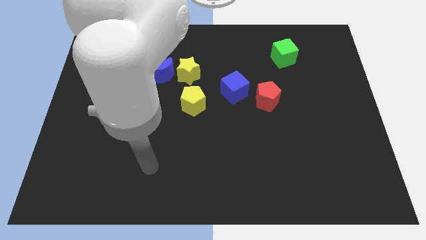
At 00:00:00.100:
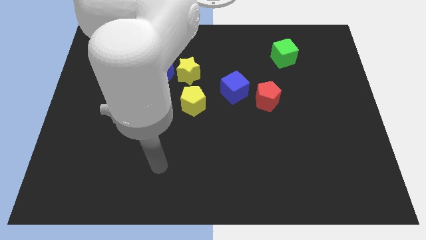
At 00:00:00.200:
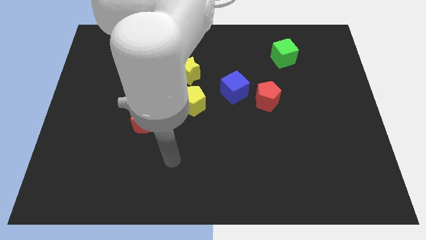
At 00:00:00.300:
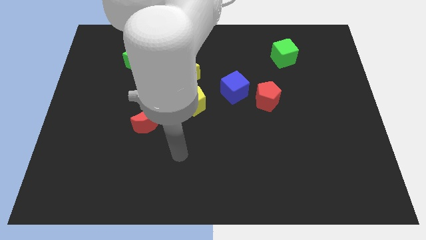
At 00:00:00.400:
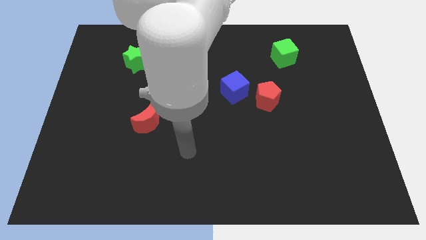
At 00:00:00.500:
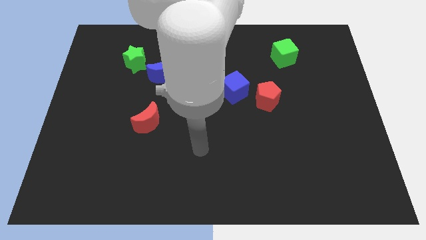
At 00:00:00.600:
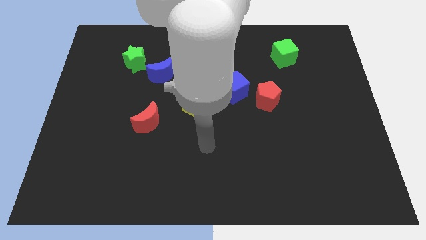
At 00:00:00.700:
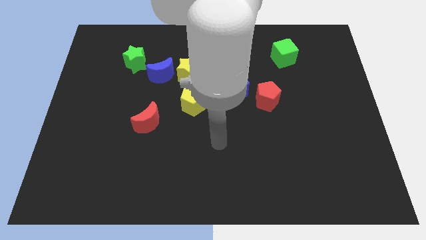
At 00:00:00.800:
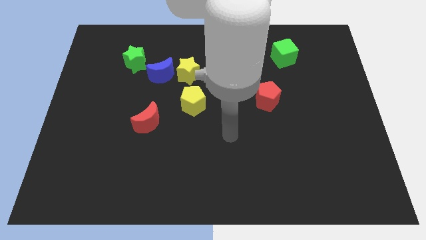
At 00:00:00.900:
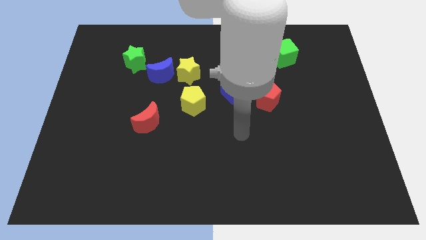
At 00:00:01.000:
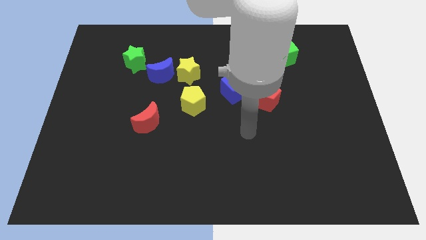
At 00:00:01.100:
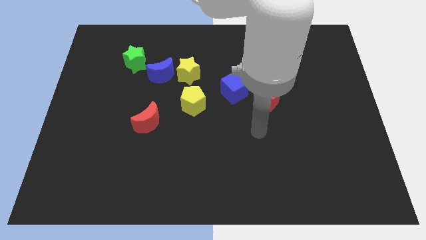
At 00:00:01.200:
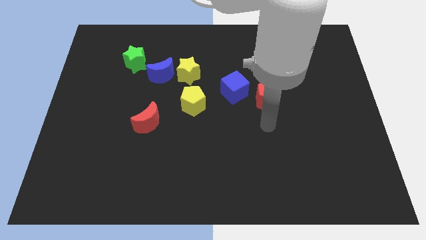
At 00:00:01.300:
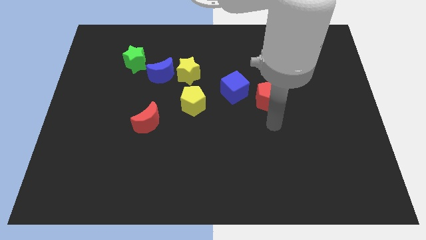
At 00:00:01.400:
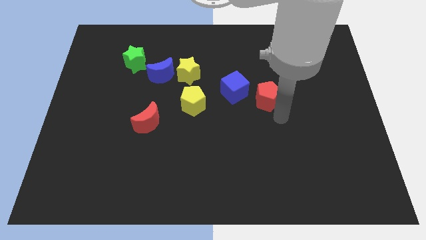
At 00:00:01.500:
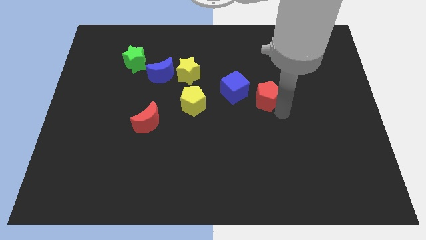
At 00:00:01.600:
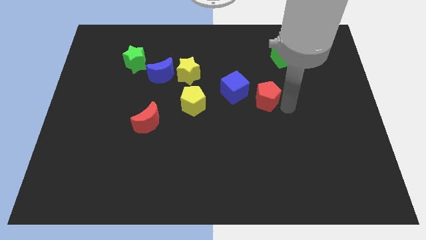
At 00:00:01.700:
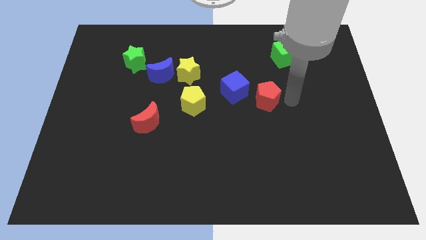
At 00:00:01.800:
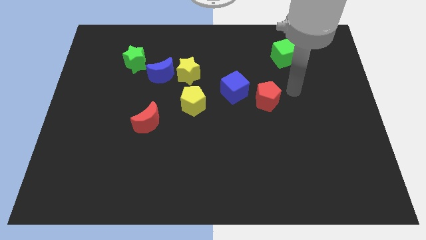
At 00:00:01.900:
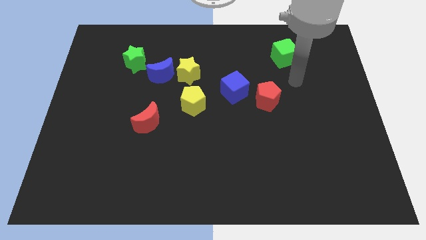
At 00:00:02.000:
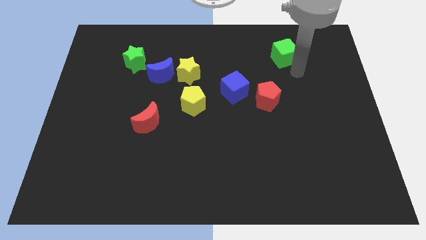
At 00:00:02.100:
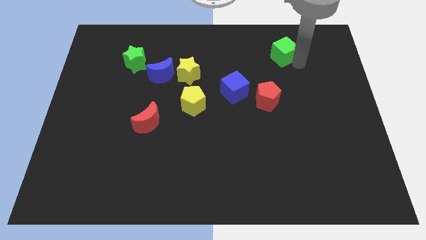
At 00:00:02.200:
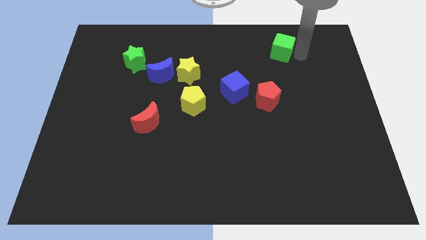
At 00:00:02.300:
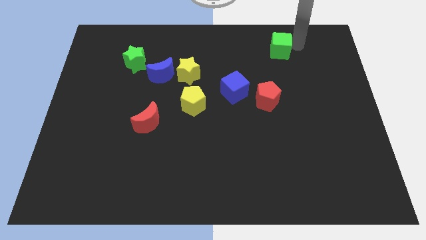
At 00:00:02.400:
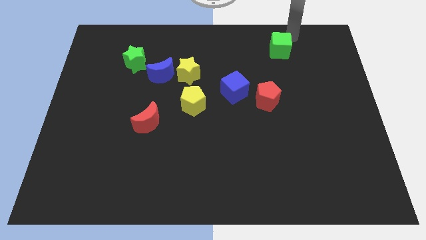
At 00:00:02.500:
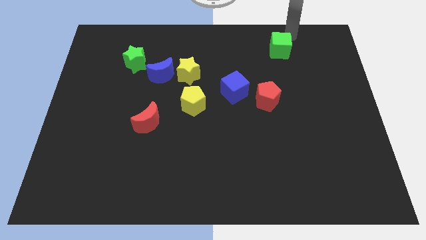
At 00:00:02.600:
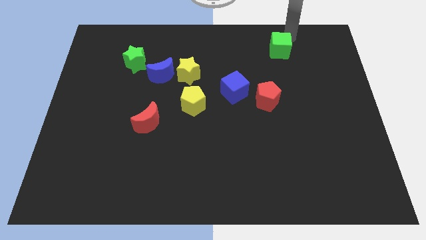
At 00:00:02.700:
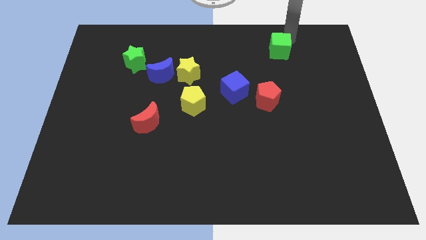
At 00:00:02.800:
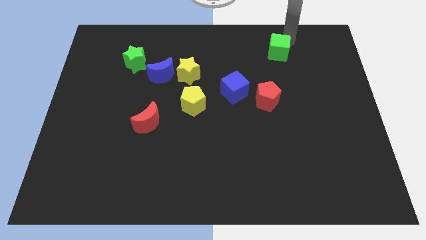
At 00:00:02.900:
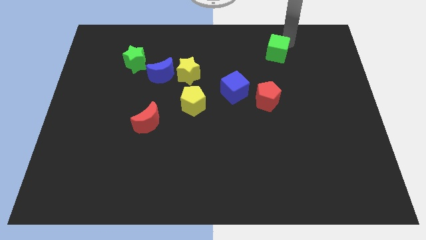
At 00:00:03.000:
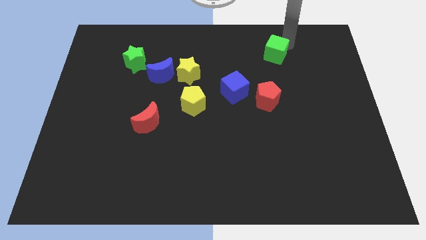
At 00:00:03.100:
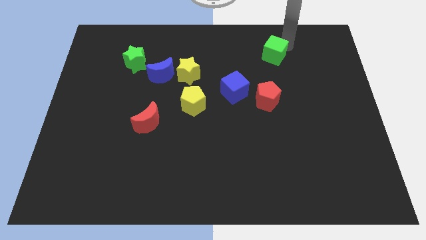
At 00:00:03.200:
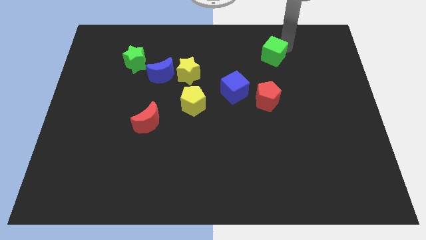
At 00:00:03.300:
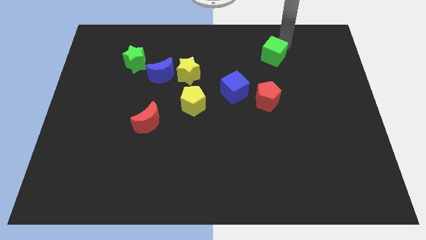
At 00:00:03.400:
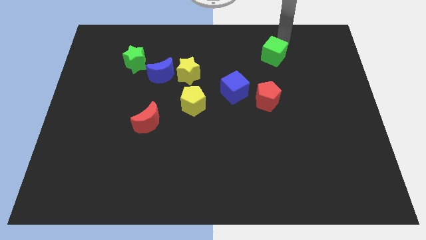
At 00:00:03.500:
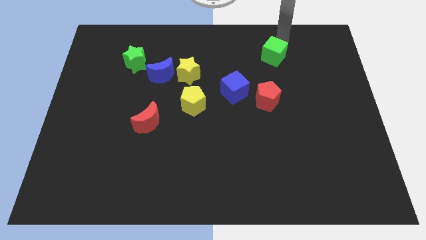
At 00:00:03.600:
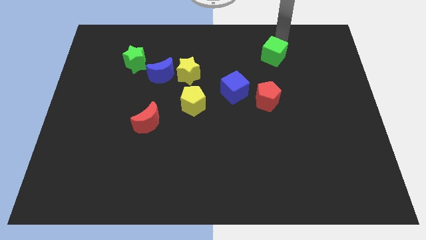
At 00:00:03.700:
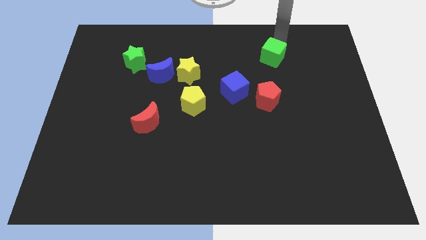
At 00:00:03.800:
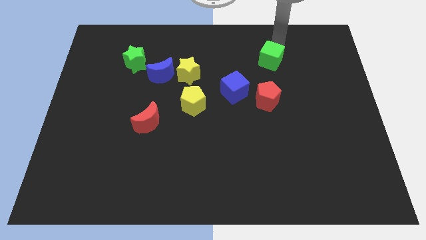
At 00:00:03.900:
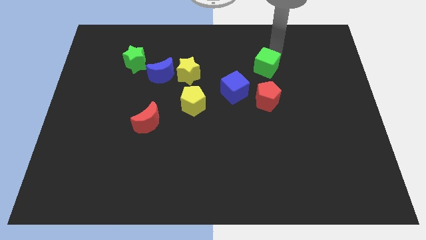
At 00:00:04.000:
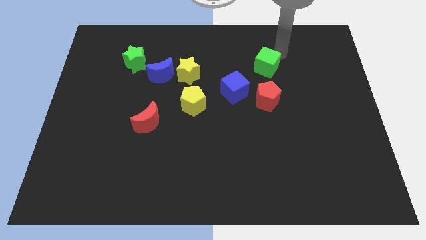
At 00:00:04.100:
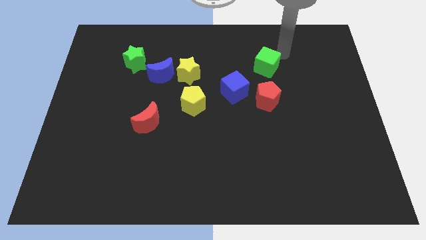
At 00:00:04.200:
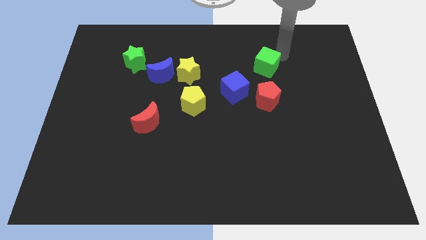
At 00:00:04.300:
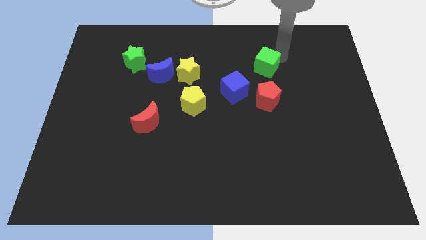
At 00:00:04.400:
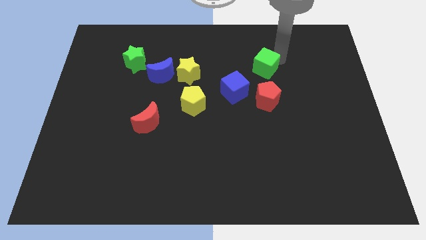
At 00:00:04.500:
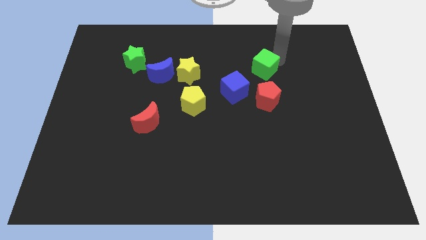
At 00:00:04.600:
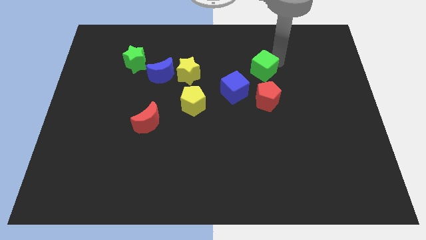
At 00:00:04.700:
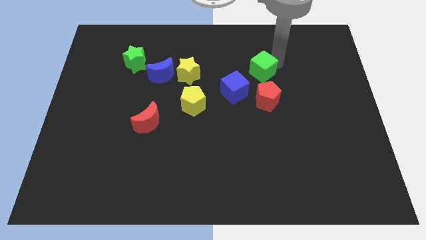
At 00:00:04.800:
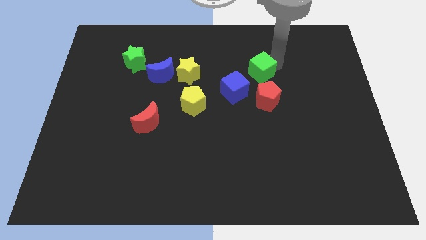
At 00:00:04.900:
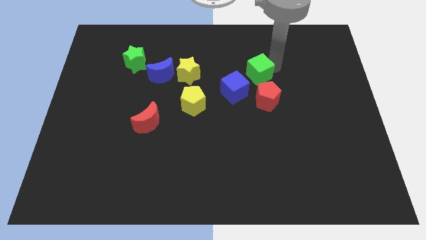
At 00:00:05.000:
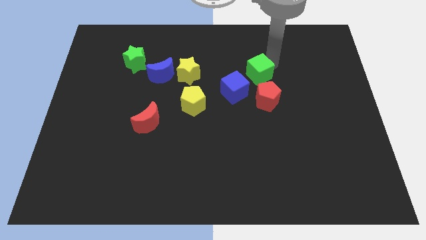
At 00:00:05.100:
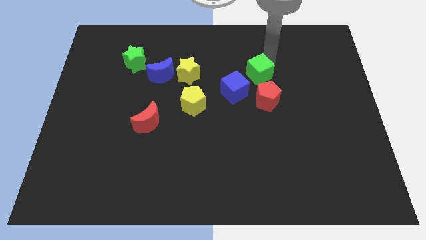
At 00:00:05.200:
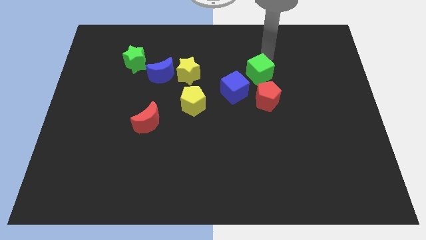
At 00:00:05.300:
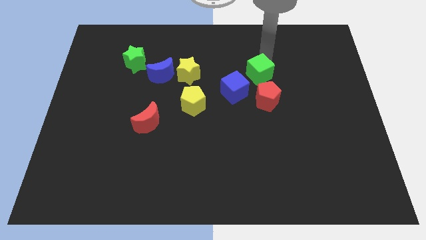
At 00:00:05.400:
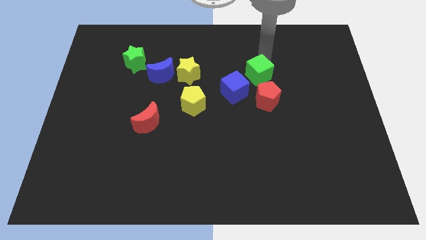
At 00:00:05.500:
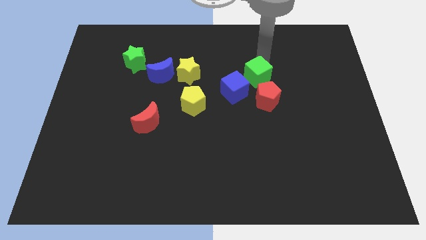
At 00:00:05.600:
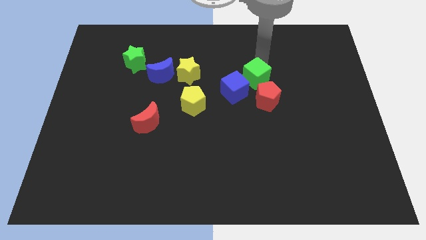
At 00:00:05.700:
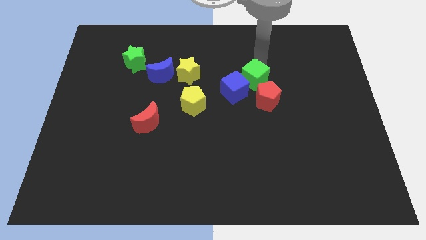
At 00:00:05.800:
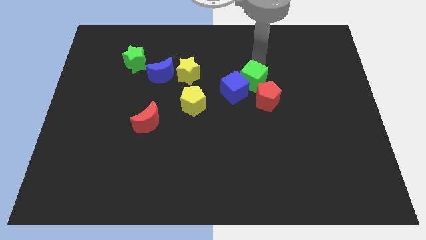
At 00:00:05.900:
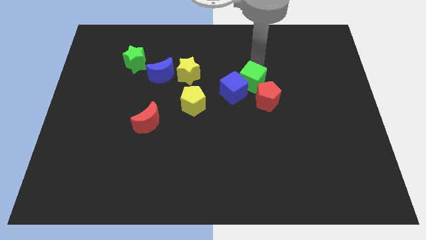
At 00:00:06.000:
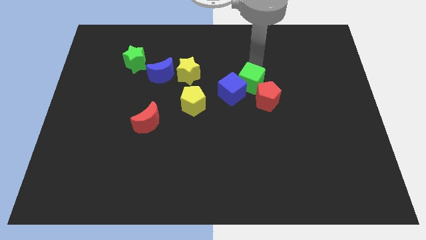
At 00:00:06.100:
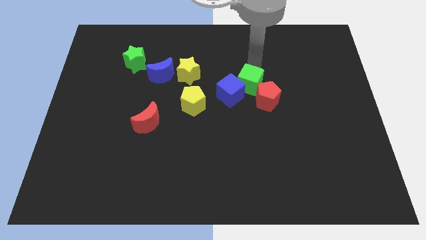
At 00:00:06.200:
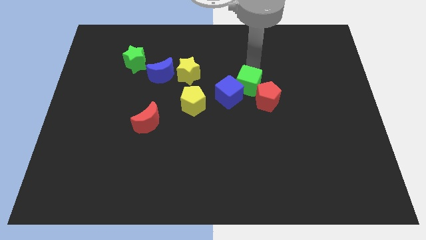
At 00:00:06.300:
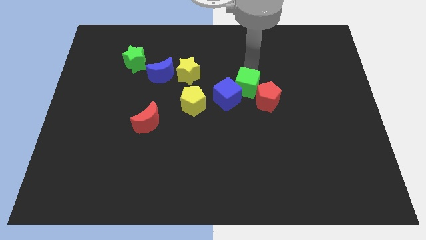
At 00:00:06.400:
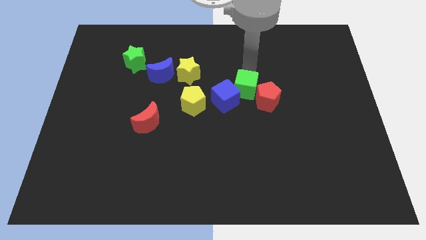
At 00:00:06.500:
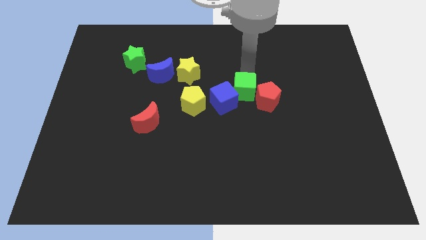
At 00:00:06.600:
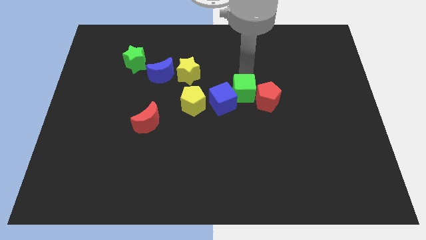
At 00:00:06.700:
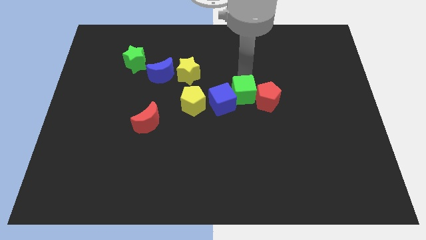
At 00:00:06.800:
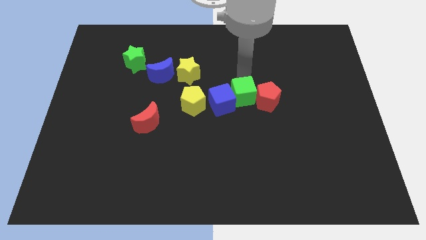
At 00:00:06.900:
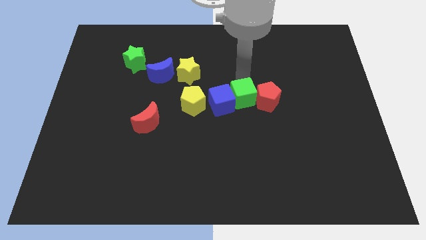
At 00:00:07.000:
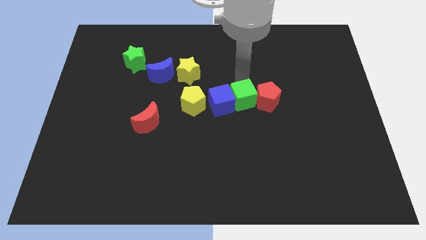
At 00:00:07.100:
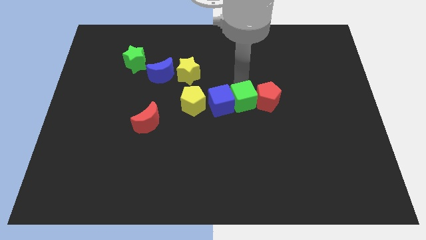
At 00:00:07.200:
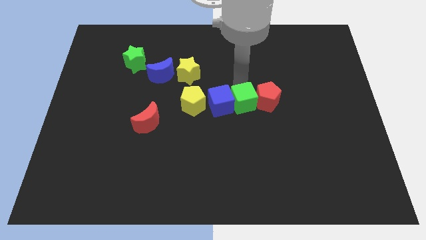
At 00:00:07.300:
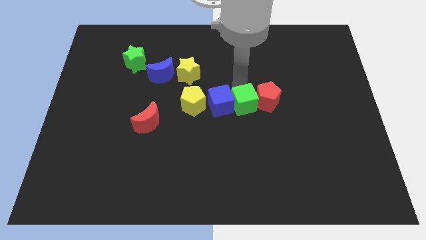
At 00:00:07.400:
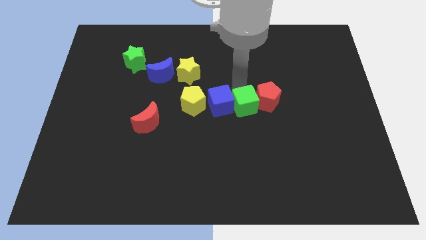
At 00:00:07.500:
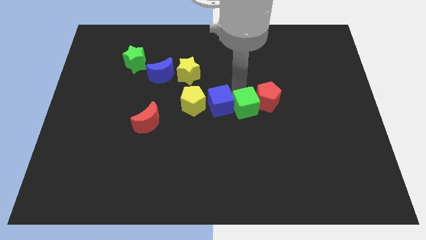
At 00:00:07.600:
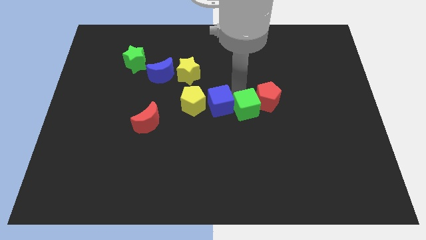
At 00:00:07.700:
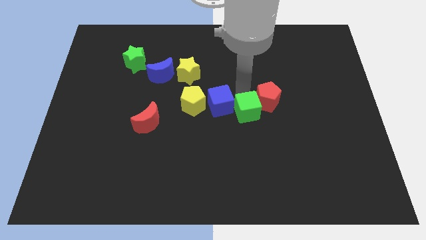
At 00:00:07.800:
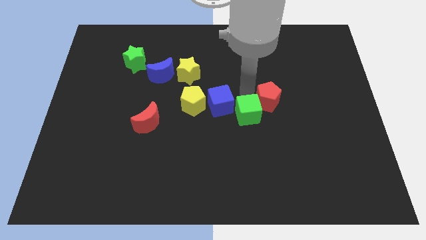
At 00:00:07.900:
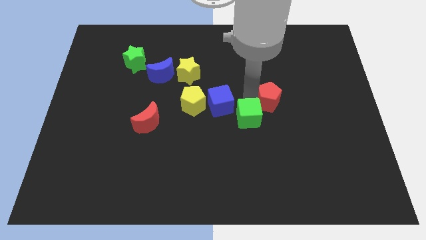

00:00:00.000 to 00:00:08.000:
move the green cube diagonally down and left
